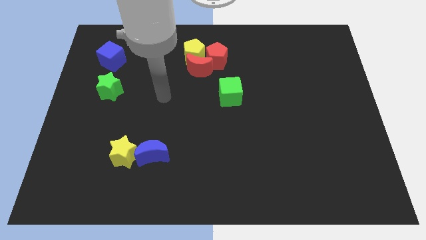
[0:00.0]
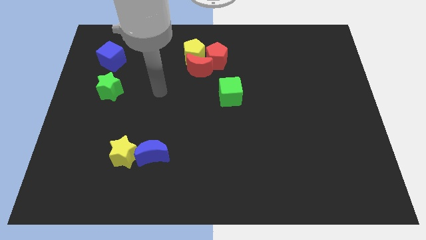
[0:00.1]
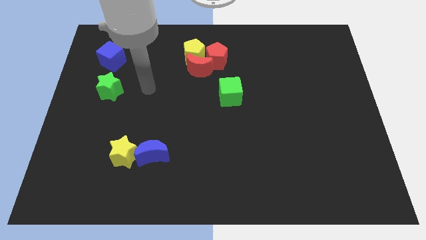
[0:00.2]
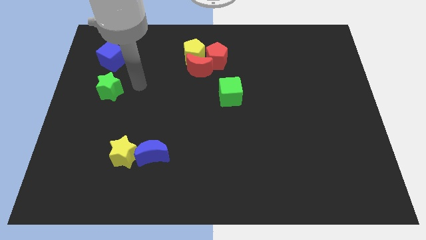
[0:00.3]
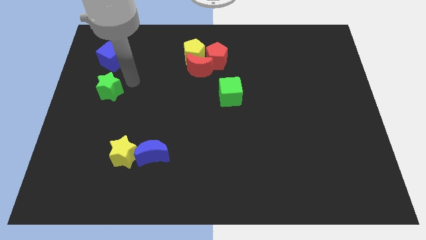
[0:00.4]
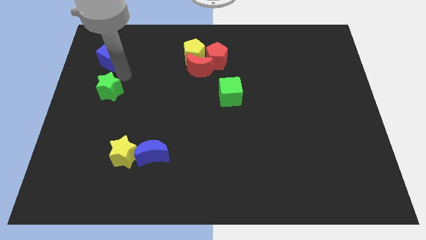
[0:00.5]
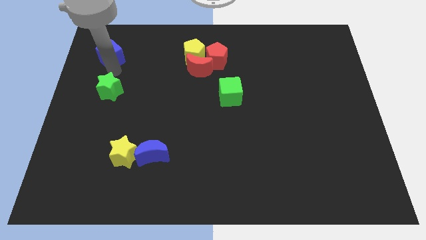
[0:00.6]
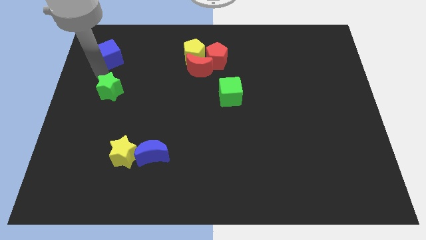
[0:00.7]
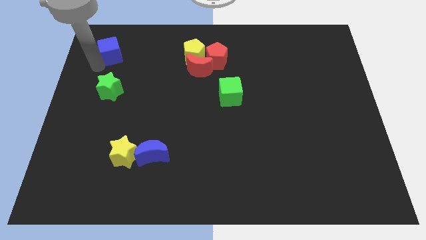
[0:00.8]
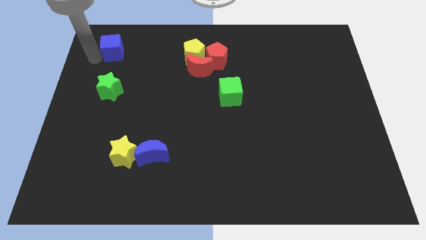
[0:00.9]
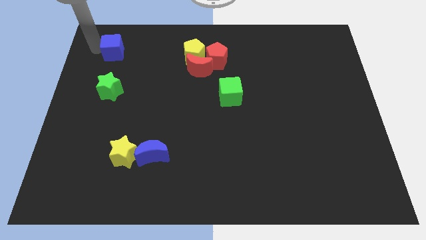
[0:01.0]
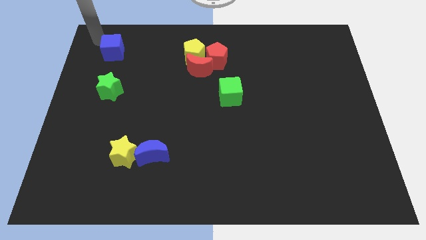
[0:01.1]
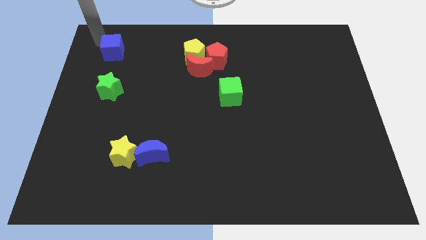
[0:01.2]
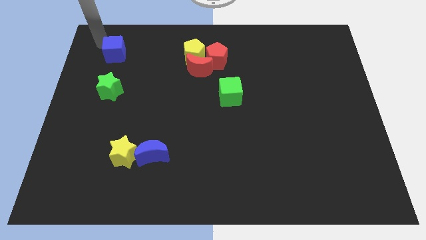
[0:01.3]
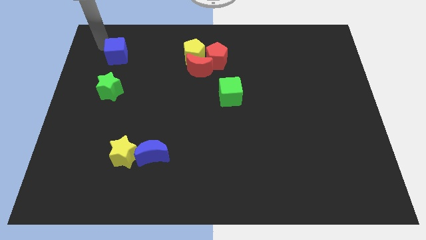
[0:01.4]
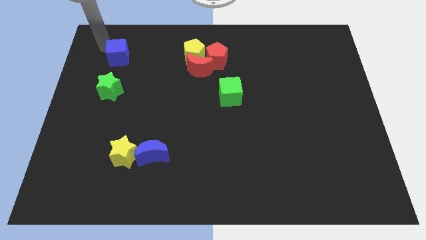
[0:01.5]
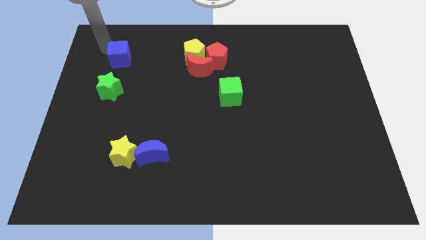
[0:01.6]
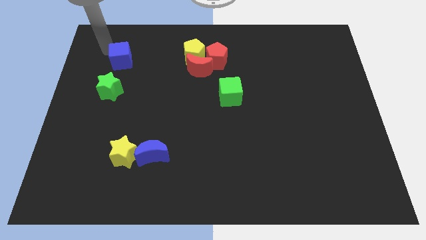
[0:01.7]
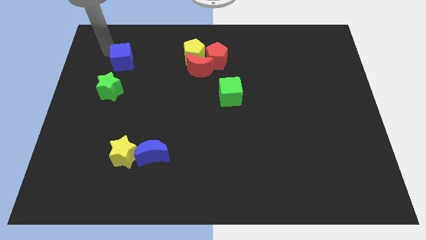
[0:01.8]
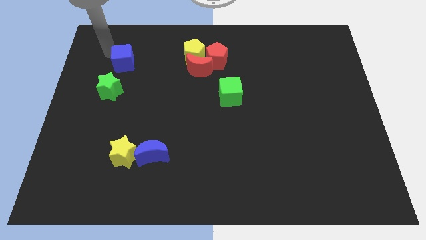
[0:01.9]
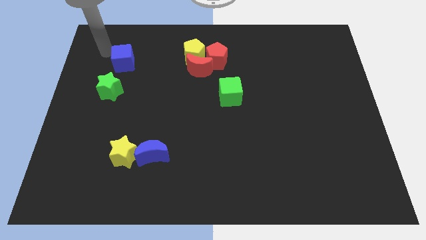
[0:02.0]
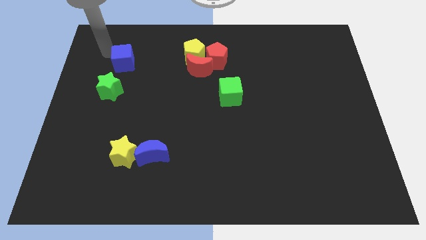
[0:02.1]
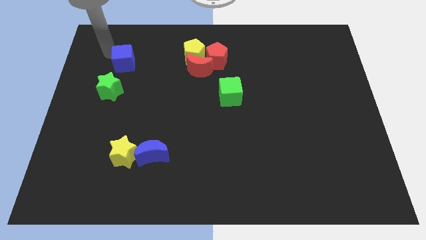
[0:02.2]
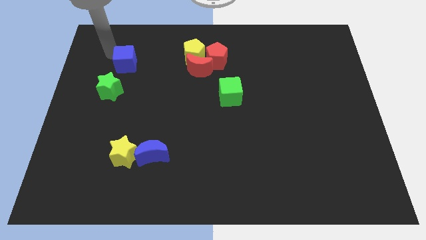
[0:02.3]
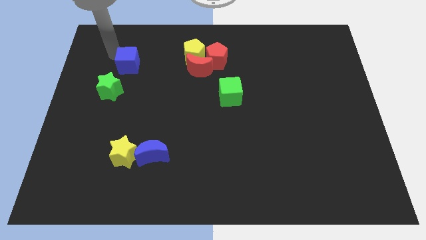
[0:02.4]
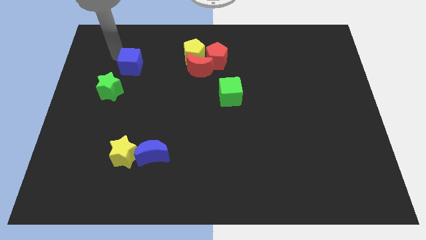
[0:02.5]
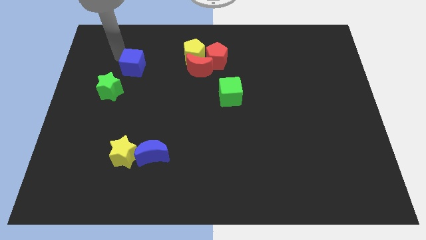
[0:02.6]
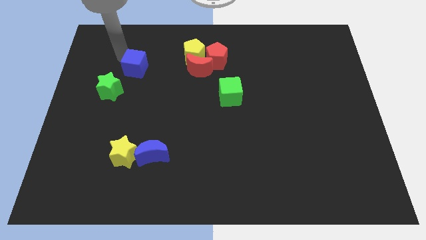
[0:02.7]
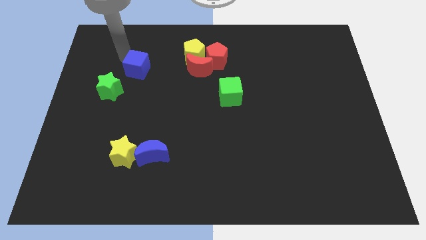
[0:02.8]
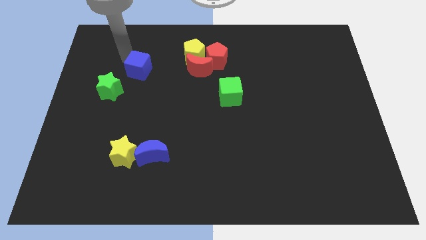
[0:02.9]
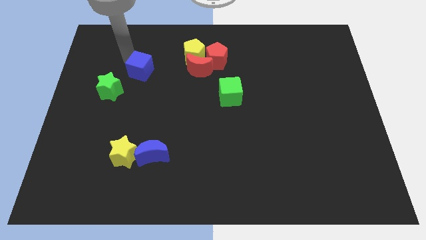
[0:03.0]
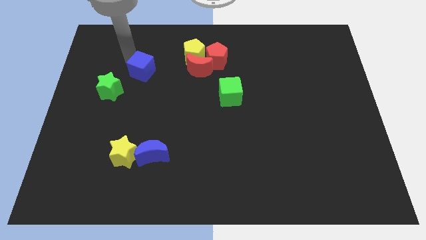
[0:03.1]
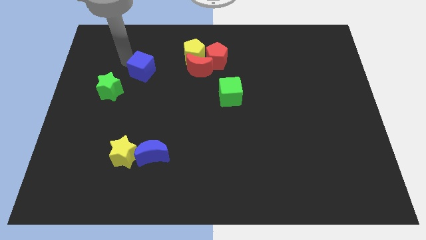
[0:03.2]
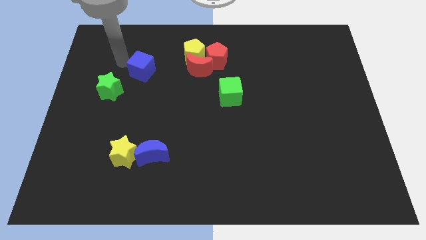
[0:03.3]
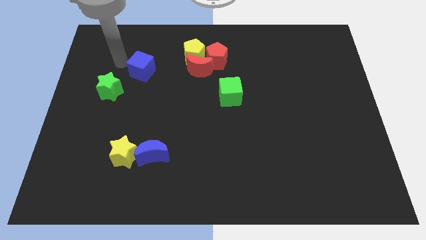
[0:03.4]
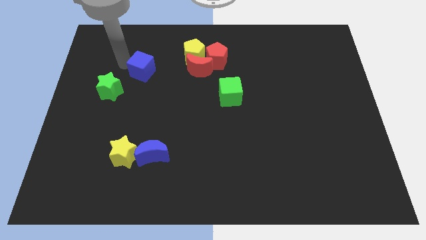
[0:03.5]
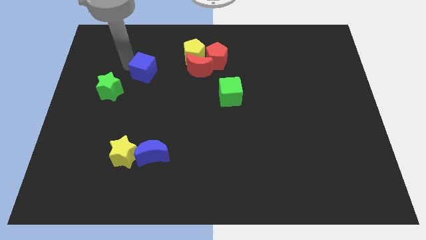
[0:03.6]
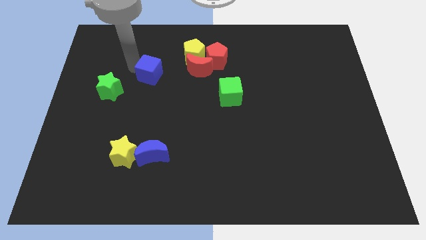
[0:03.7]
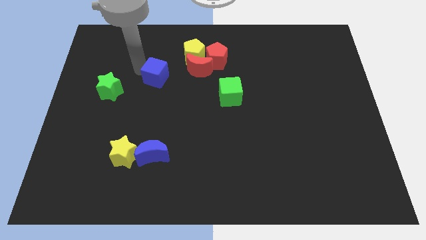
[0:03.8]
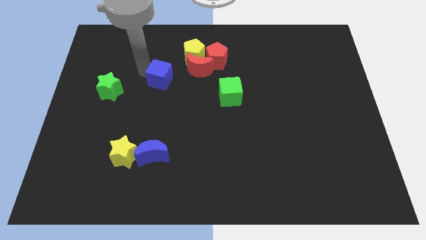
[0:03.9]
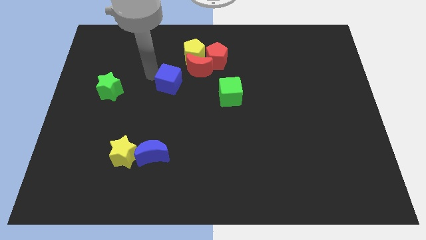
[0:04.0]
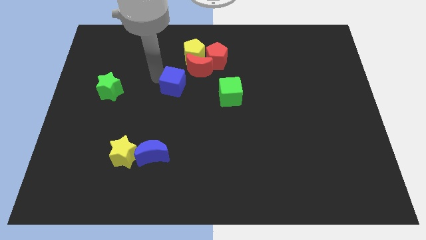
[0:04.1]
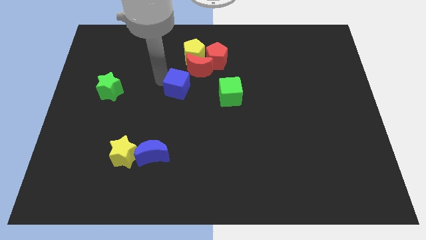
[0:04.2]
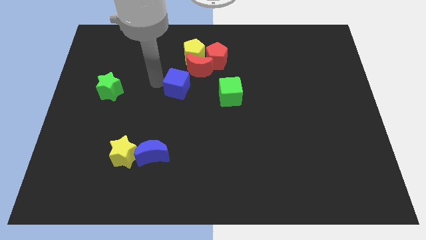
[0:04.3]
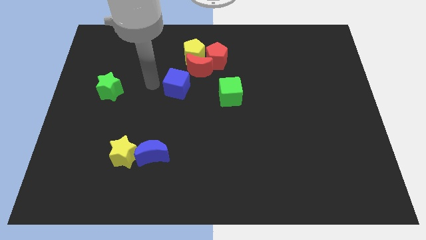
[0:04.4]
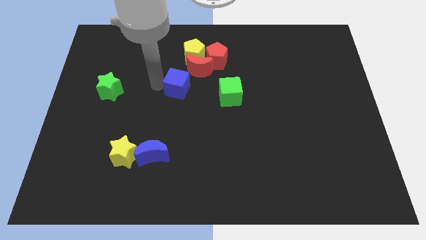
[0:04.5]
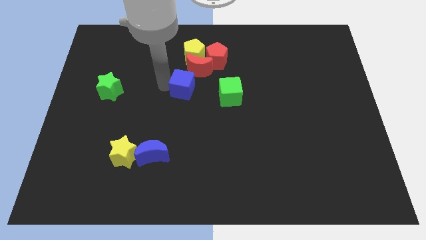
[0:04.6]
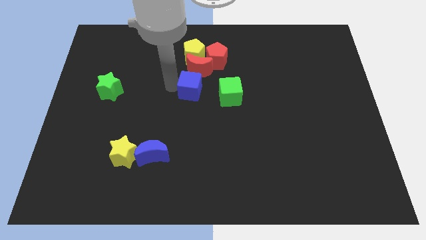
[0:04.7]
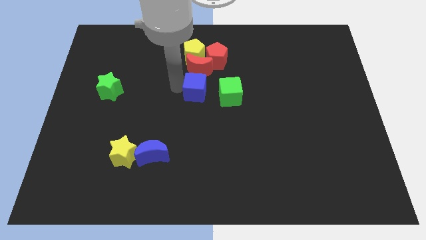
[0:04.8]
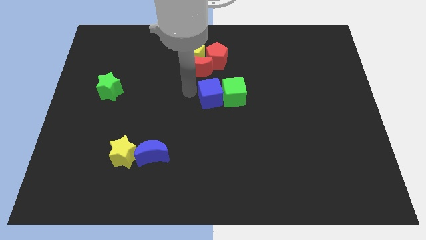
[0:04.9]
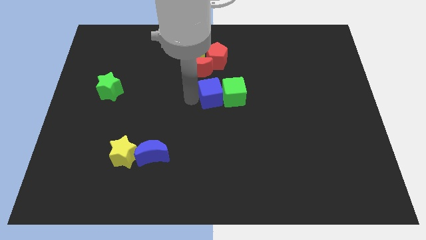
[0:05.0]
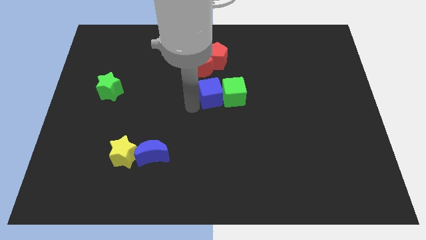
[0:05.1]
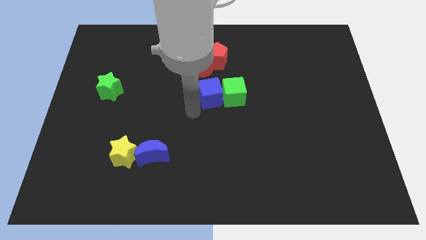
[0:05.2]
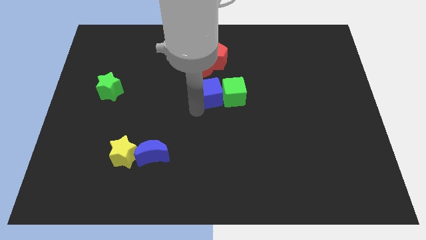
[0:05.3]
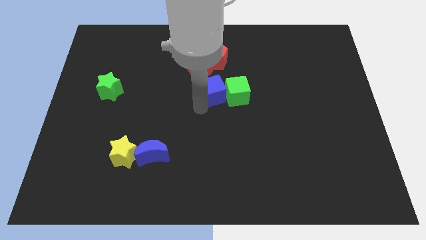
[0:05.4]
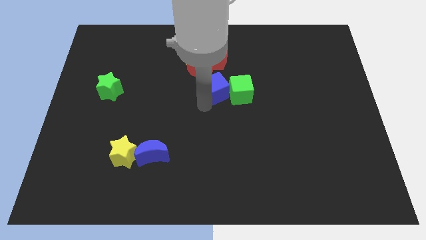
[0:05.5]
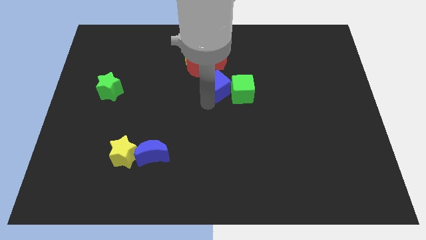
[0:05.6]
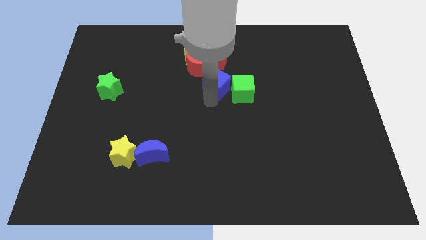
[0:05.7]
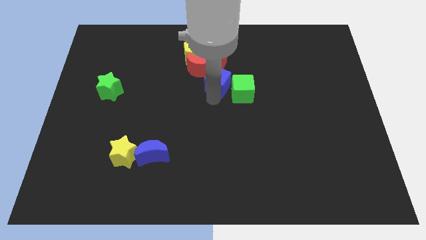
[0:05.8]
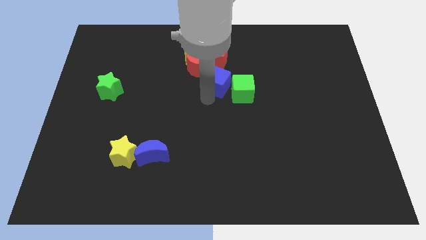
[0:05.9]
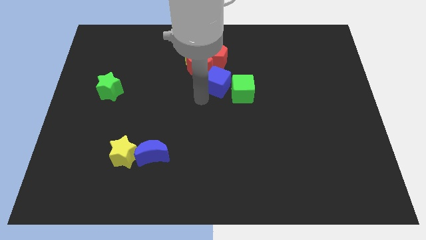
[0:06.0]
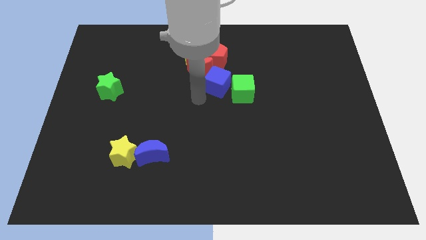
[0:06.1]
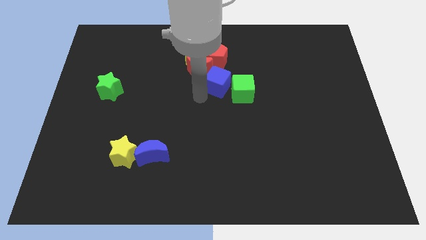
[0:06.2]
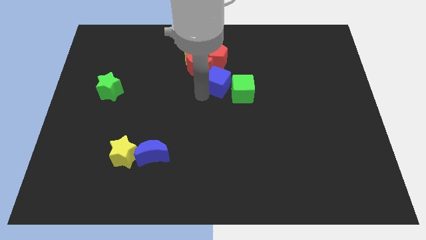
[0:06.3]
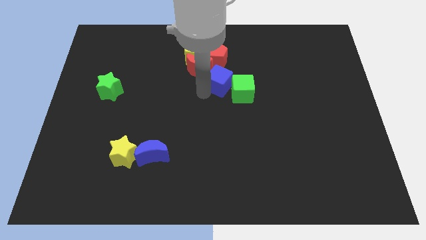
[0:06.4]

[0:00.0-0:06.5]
move the blue cube to the right side of the red moon
